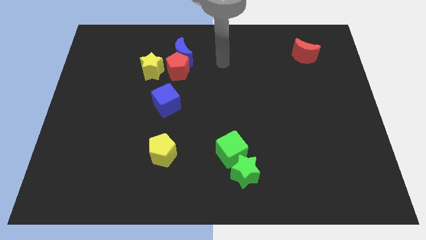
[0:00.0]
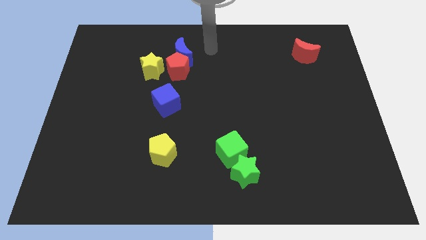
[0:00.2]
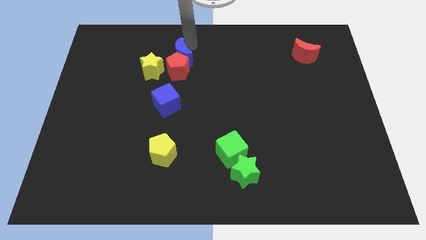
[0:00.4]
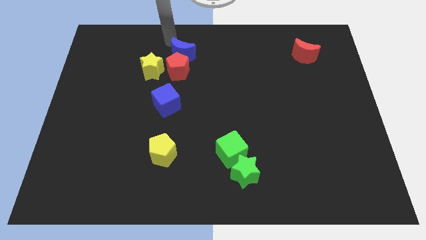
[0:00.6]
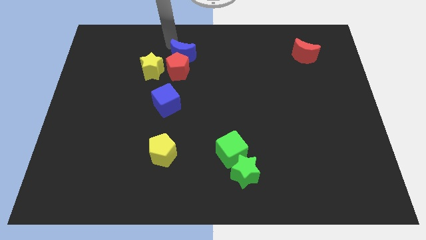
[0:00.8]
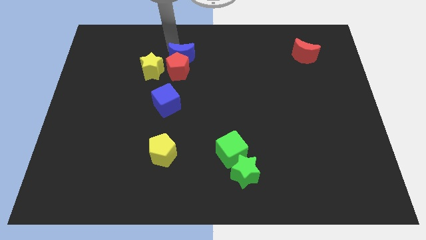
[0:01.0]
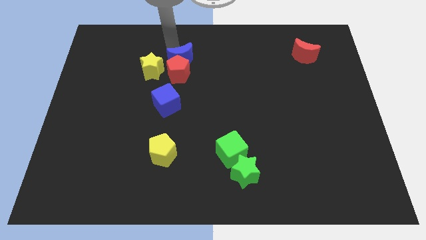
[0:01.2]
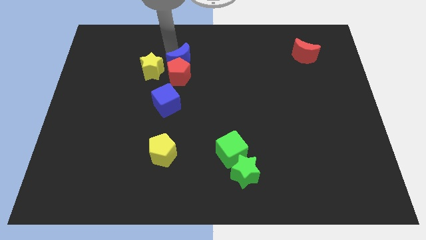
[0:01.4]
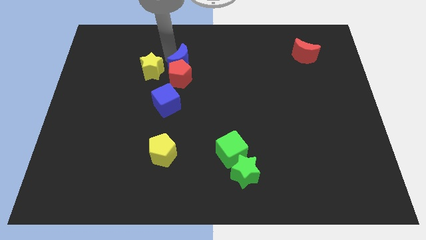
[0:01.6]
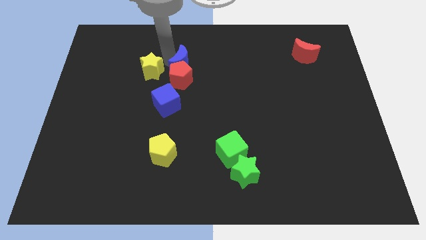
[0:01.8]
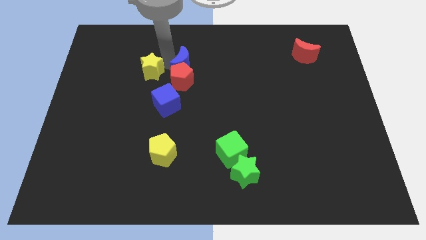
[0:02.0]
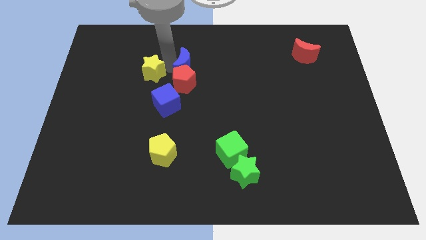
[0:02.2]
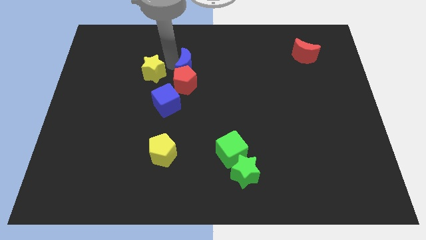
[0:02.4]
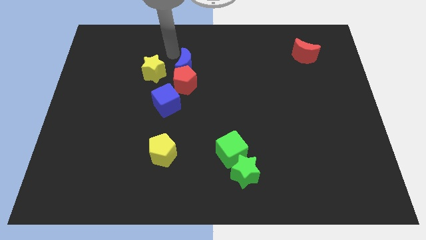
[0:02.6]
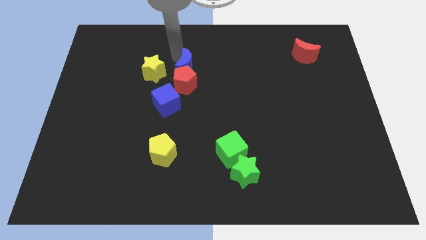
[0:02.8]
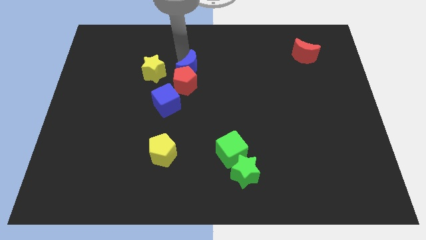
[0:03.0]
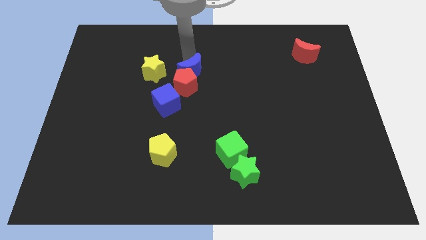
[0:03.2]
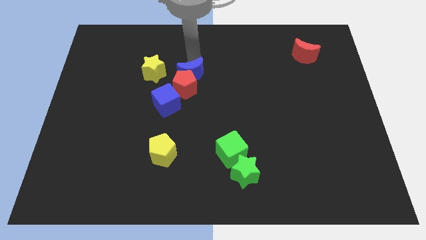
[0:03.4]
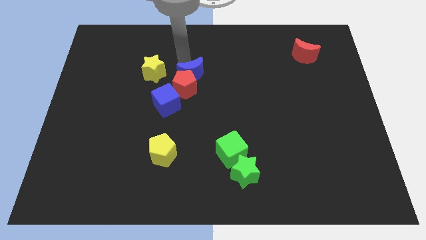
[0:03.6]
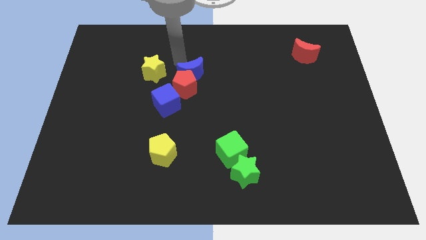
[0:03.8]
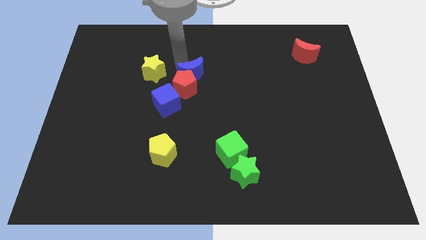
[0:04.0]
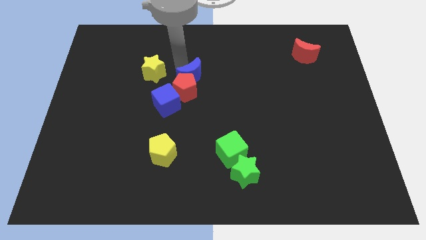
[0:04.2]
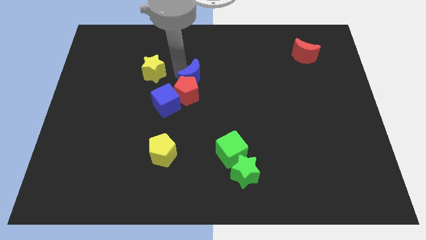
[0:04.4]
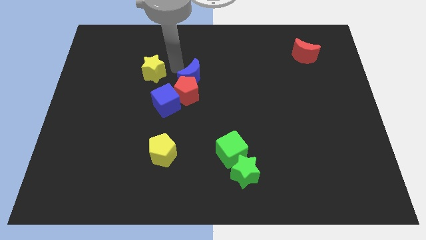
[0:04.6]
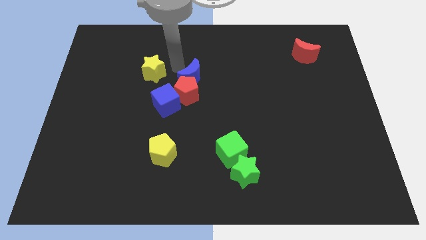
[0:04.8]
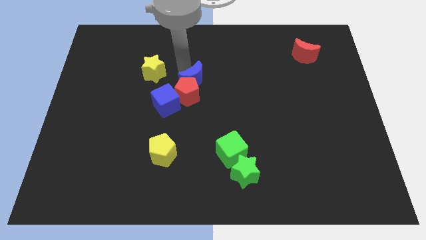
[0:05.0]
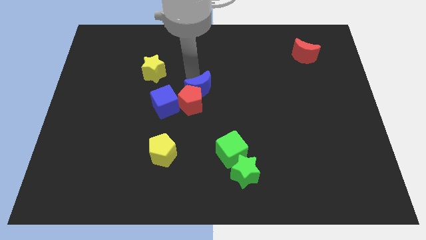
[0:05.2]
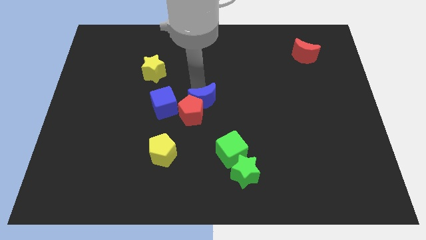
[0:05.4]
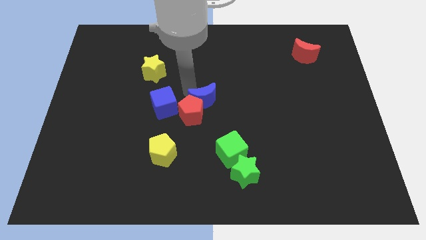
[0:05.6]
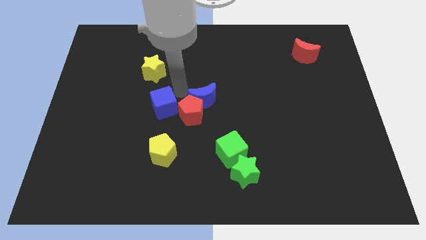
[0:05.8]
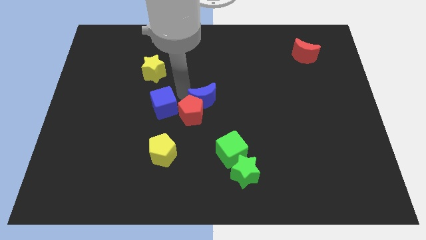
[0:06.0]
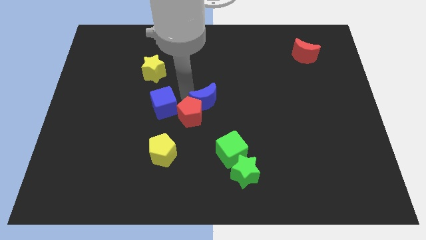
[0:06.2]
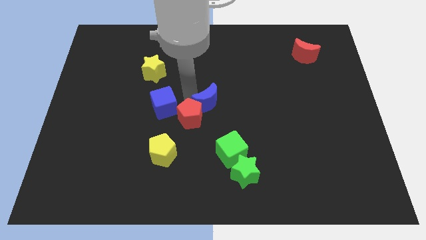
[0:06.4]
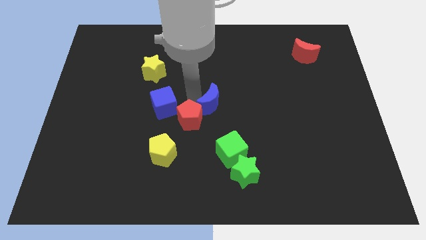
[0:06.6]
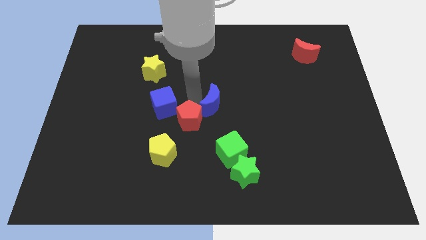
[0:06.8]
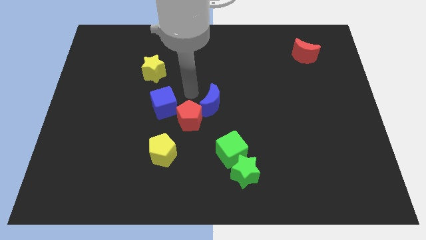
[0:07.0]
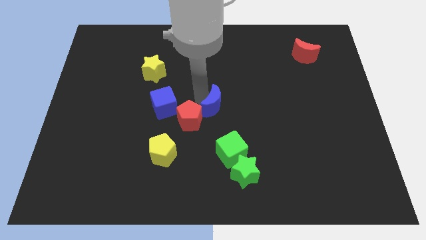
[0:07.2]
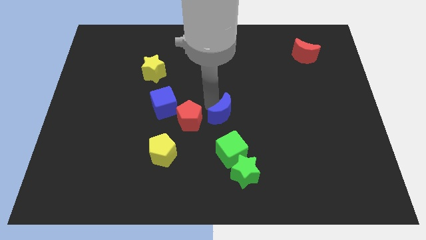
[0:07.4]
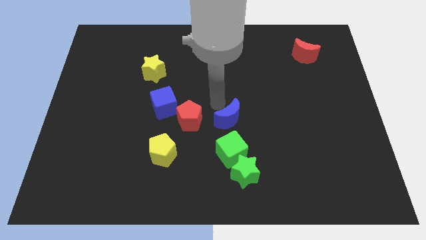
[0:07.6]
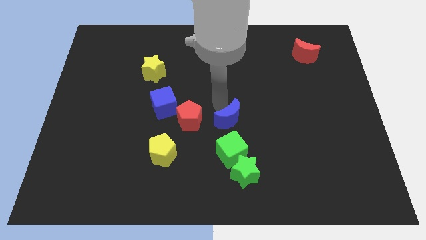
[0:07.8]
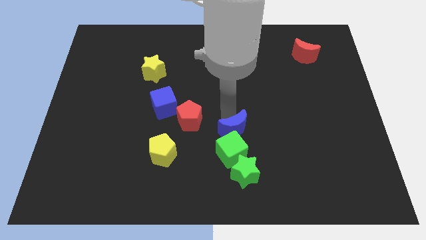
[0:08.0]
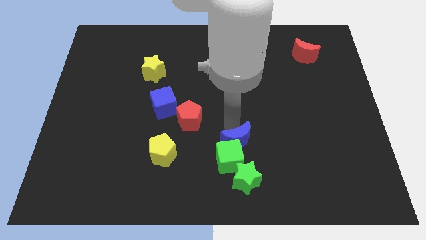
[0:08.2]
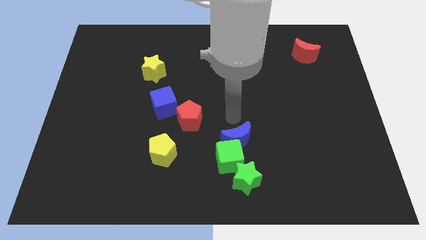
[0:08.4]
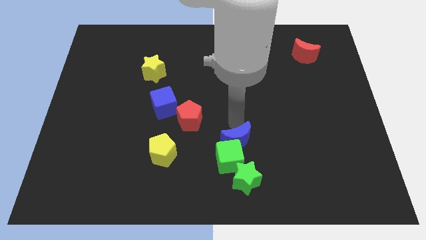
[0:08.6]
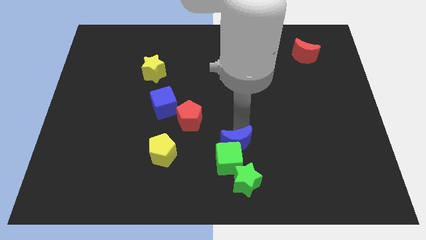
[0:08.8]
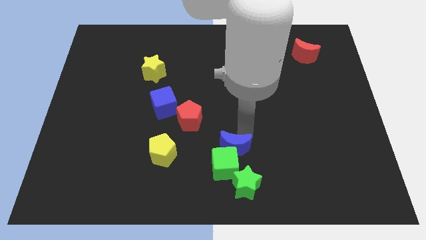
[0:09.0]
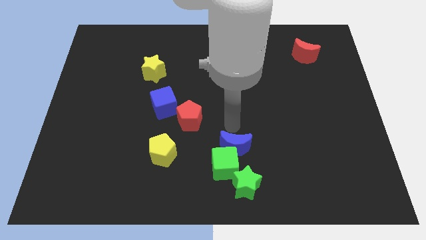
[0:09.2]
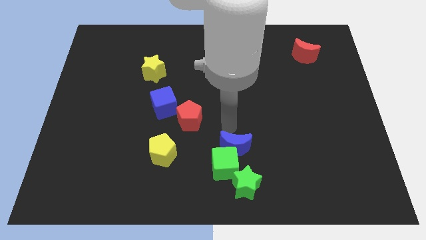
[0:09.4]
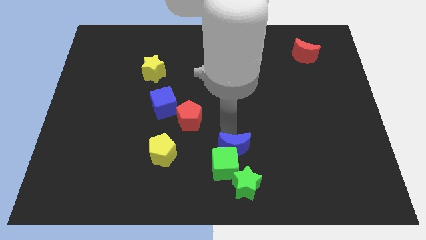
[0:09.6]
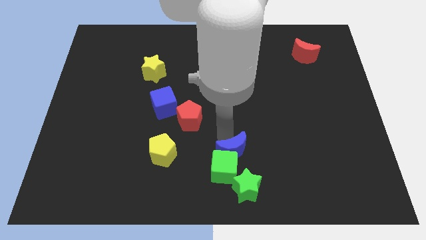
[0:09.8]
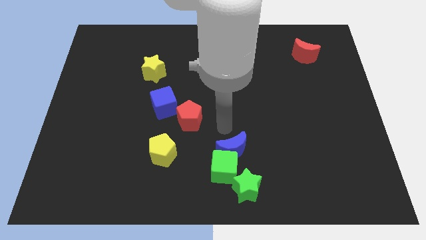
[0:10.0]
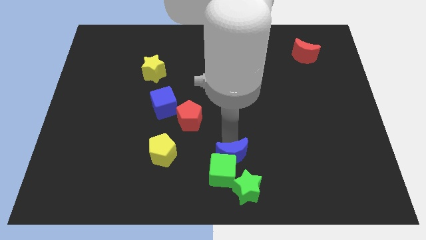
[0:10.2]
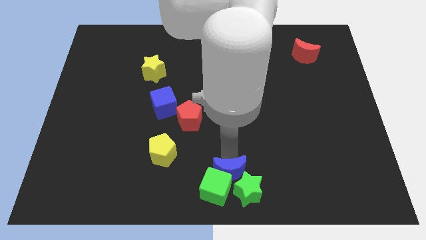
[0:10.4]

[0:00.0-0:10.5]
slide the blue moon to the green star

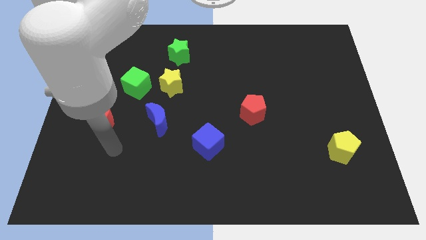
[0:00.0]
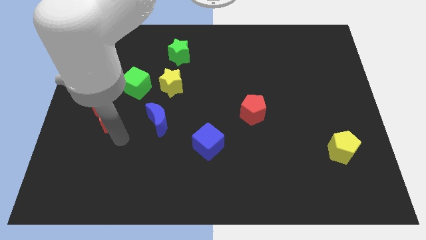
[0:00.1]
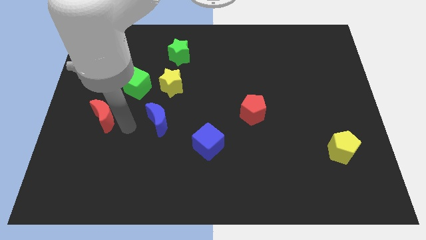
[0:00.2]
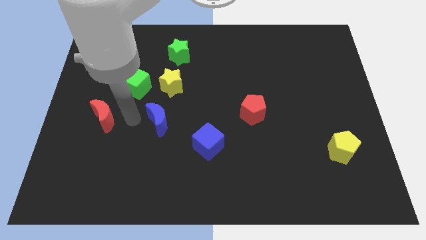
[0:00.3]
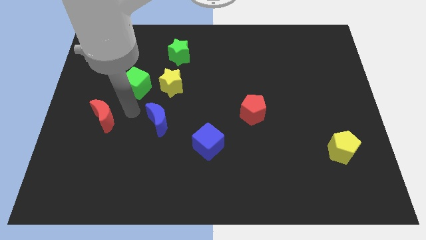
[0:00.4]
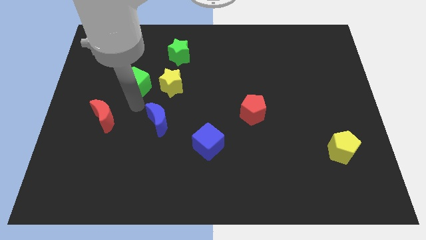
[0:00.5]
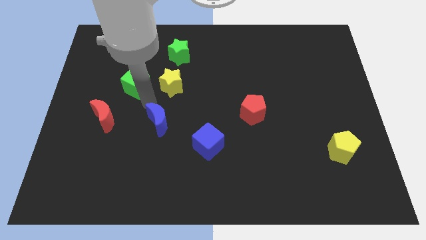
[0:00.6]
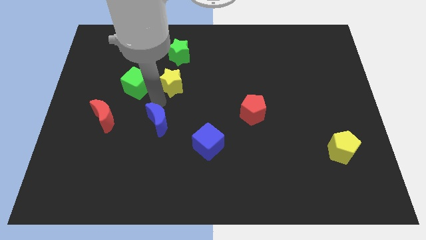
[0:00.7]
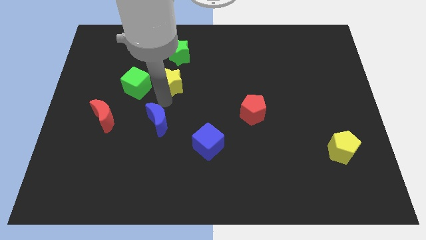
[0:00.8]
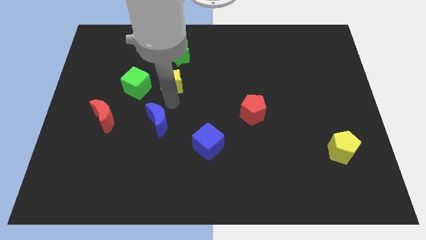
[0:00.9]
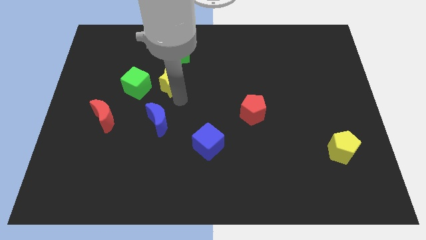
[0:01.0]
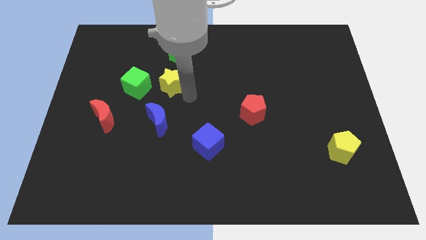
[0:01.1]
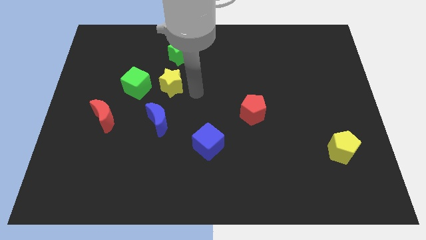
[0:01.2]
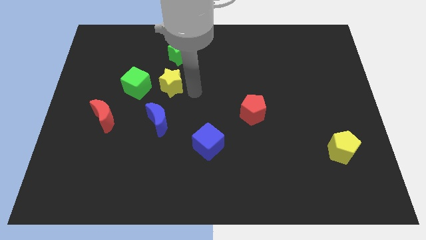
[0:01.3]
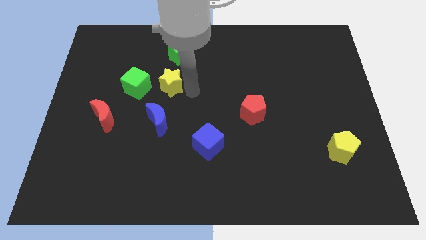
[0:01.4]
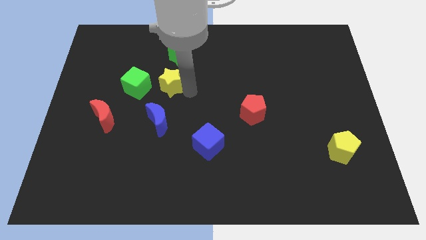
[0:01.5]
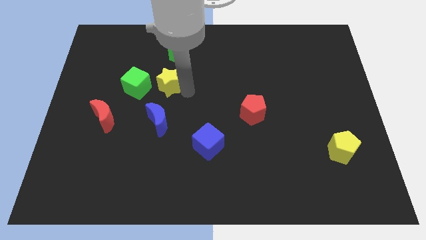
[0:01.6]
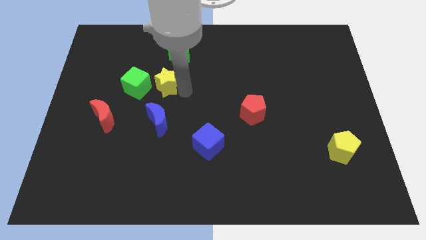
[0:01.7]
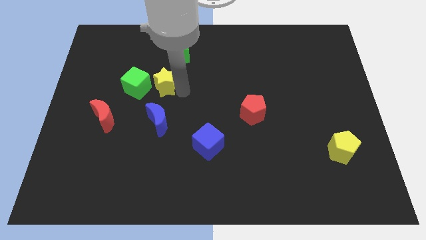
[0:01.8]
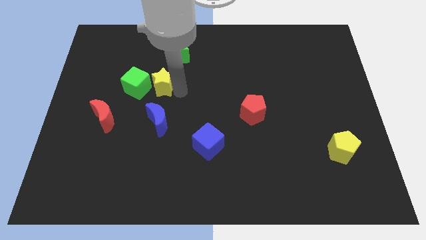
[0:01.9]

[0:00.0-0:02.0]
put the yellow star close to the green cube

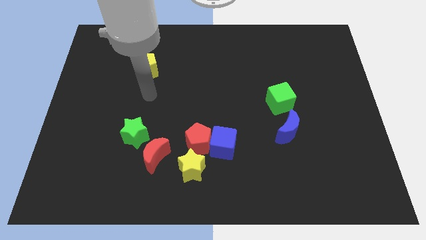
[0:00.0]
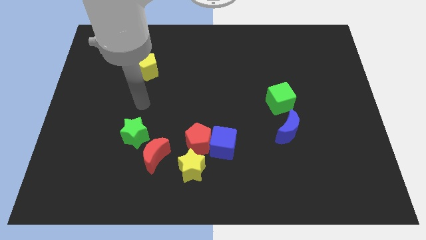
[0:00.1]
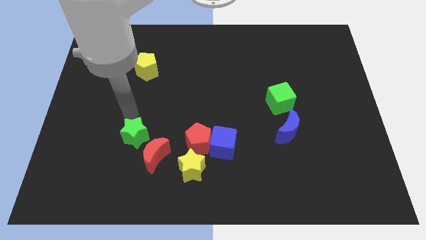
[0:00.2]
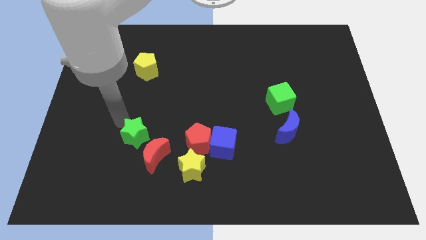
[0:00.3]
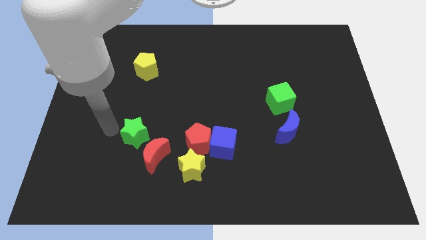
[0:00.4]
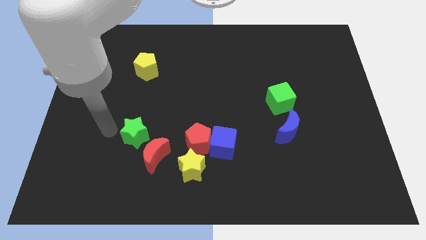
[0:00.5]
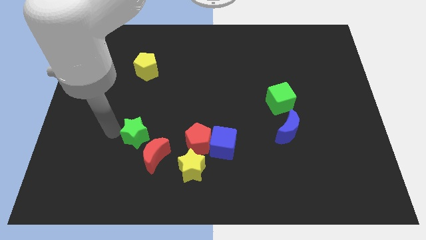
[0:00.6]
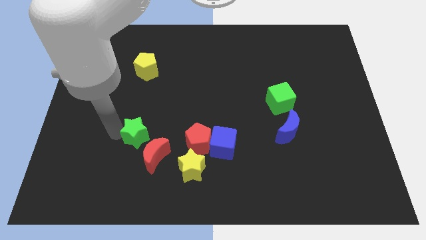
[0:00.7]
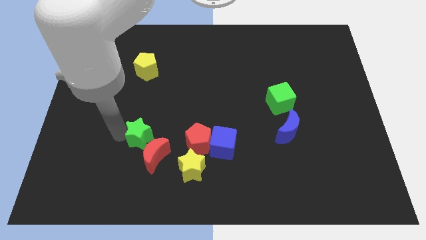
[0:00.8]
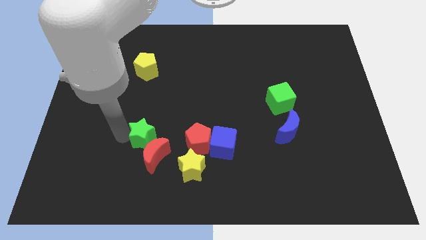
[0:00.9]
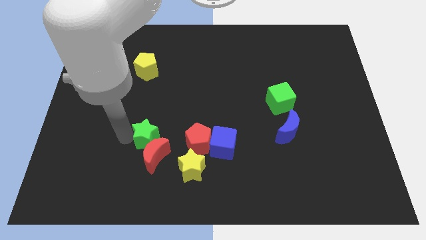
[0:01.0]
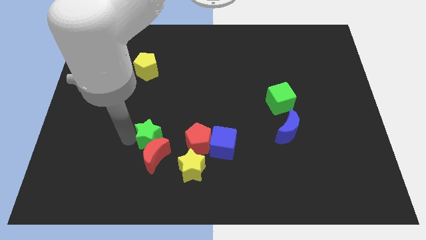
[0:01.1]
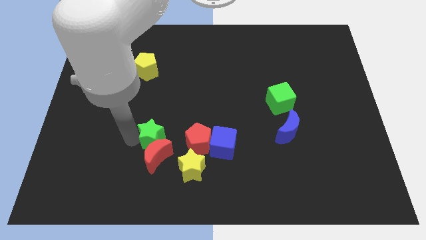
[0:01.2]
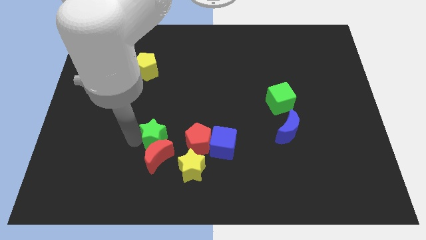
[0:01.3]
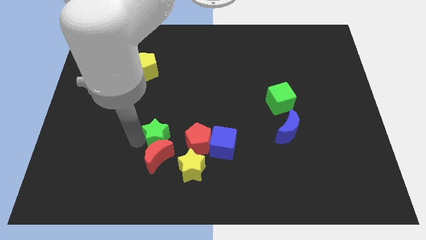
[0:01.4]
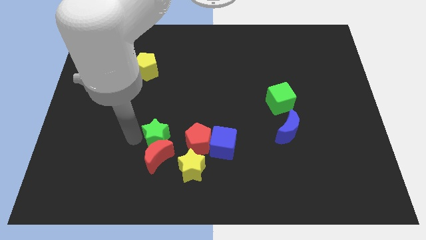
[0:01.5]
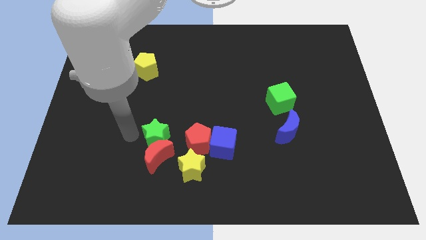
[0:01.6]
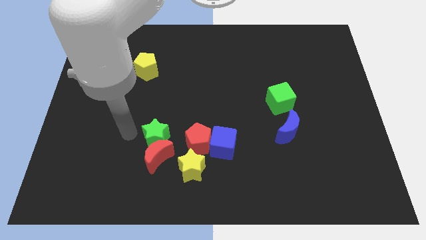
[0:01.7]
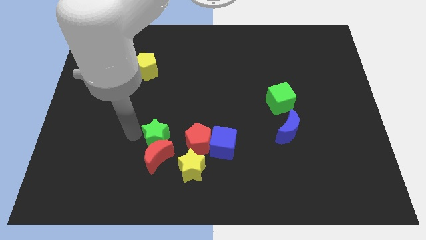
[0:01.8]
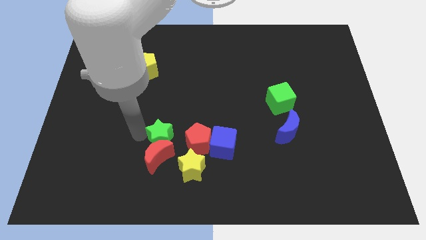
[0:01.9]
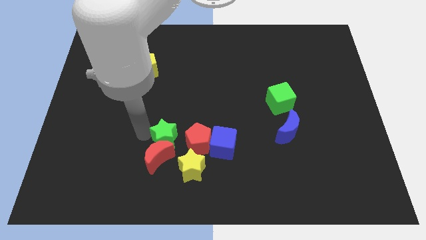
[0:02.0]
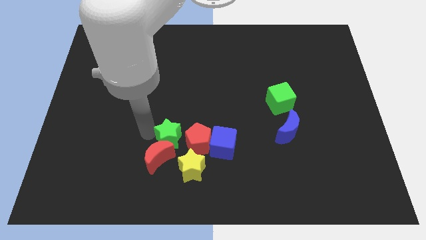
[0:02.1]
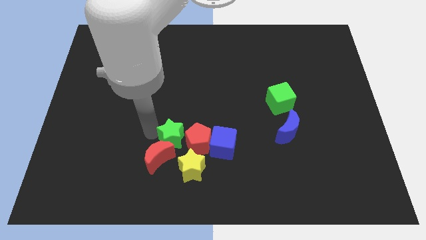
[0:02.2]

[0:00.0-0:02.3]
put the green star close to the red pentagon
